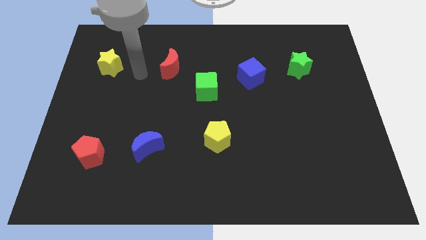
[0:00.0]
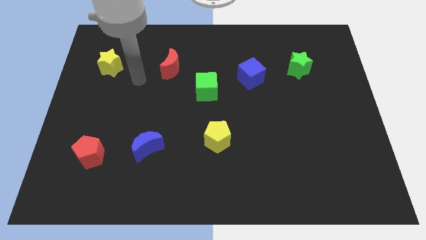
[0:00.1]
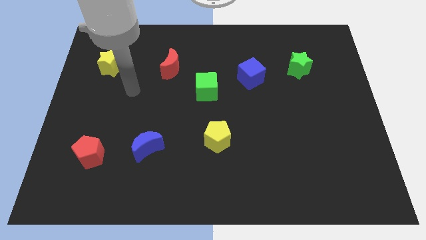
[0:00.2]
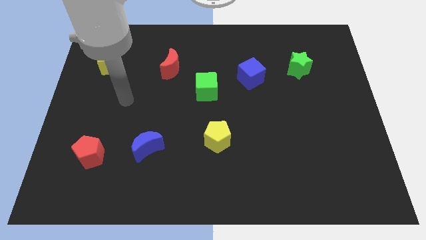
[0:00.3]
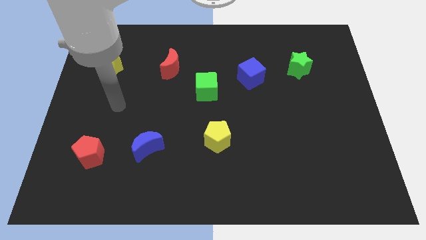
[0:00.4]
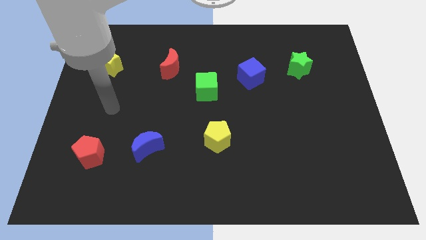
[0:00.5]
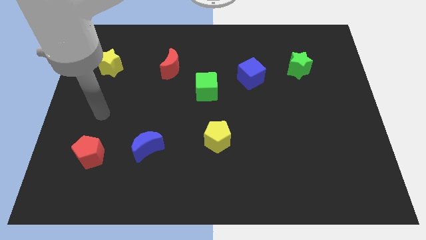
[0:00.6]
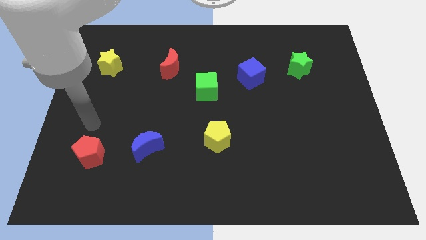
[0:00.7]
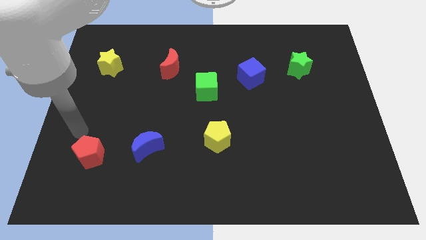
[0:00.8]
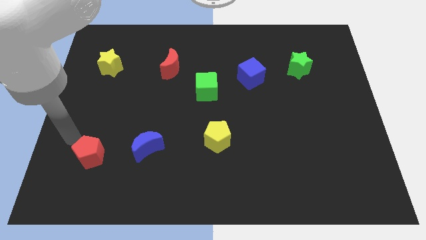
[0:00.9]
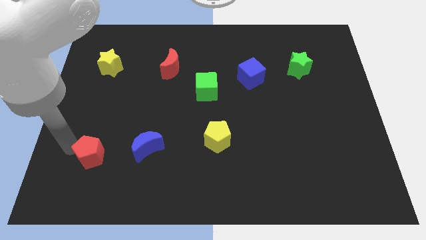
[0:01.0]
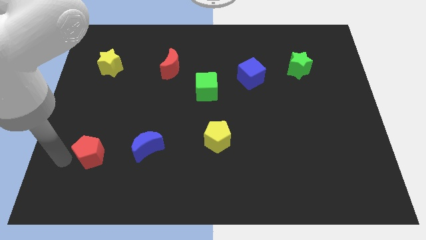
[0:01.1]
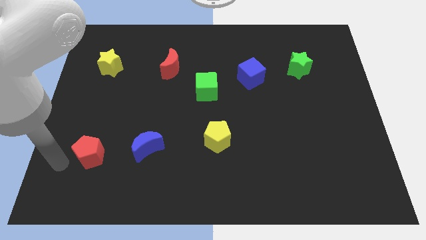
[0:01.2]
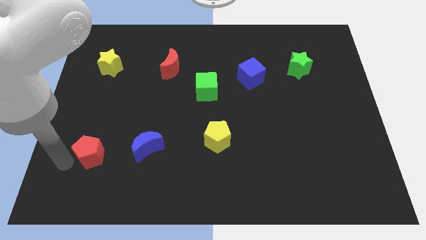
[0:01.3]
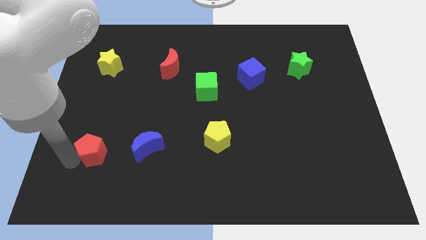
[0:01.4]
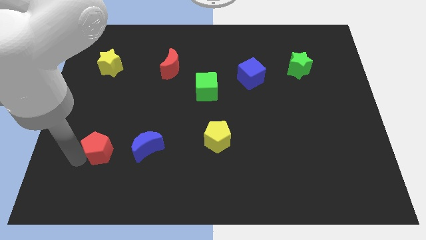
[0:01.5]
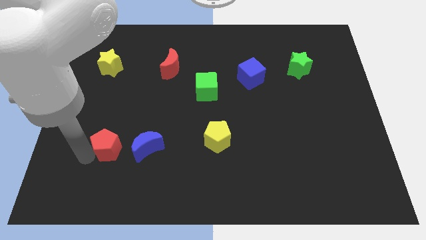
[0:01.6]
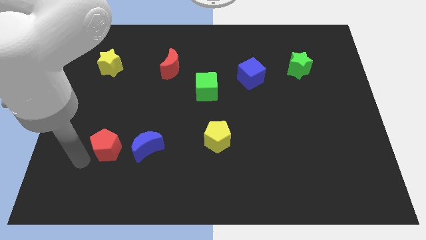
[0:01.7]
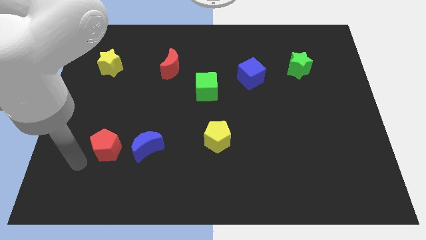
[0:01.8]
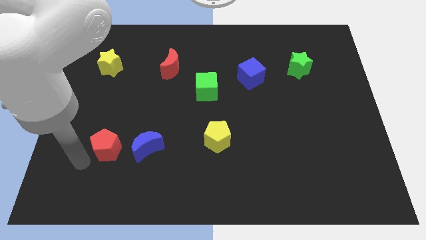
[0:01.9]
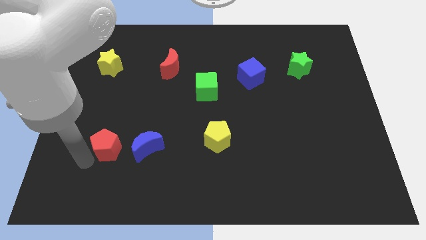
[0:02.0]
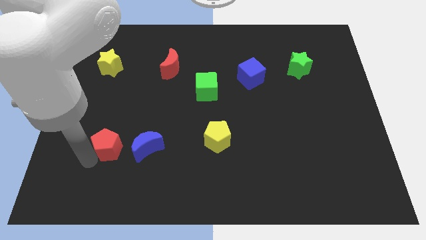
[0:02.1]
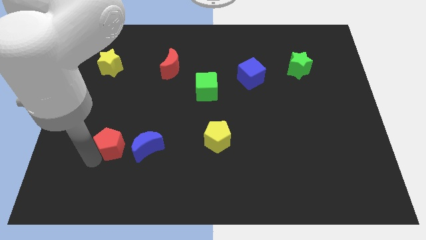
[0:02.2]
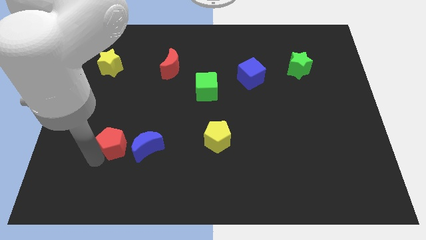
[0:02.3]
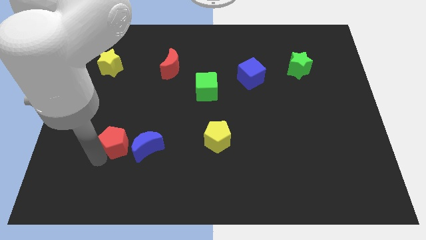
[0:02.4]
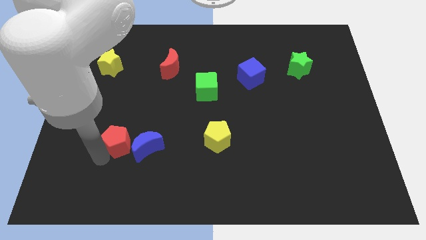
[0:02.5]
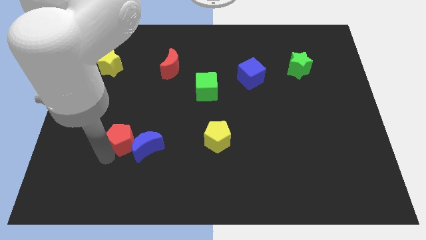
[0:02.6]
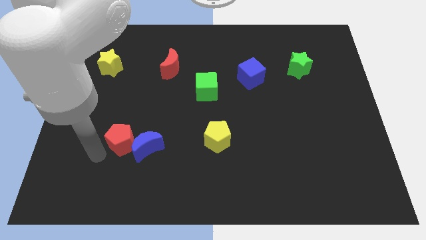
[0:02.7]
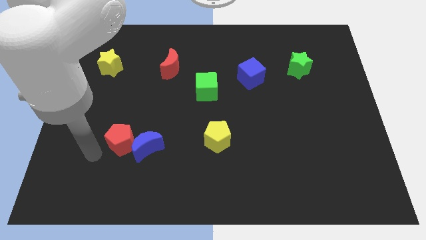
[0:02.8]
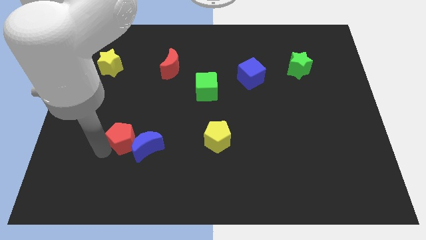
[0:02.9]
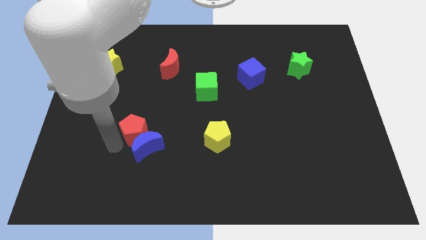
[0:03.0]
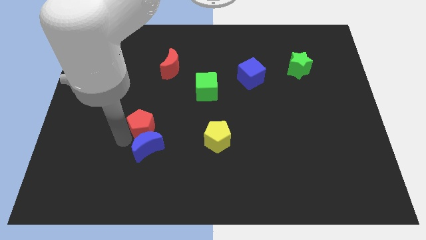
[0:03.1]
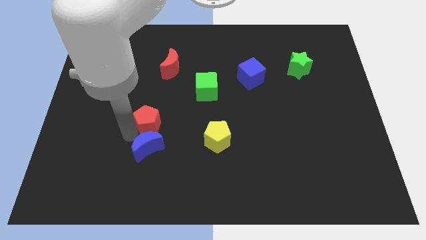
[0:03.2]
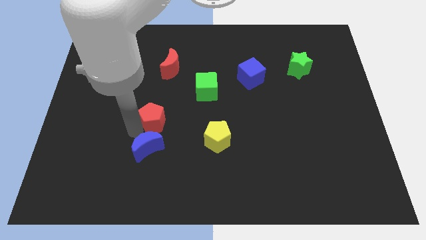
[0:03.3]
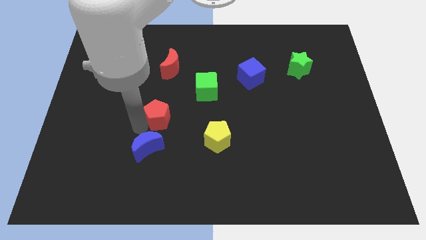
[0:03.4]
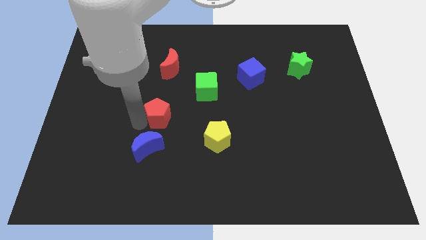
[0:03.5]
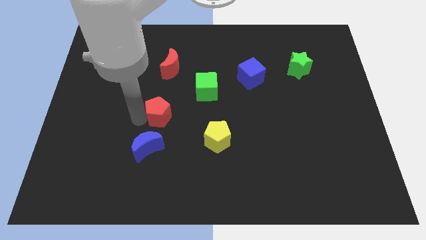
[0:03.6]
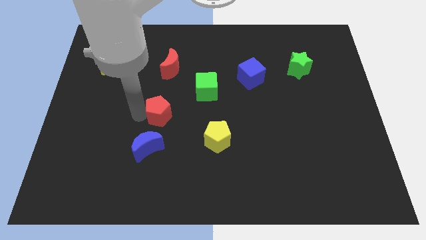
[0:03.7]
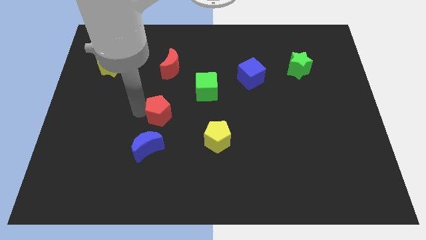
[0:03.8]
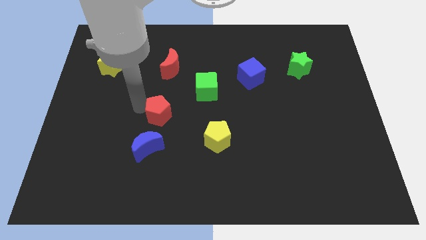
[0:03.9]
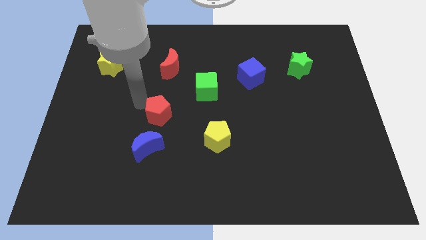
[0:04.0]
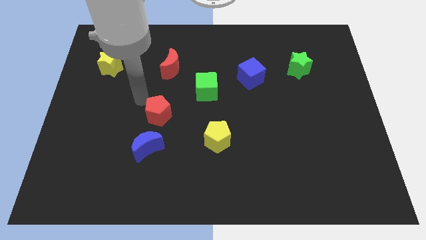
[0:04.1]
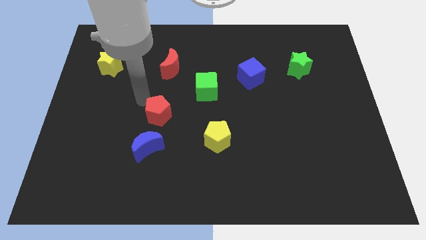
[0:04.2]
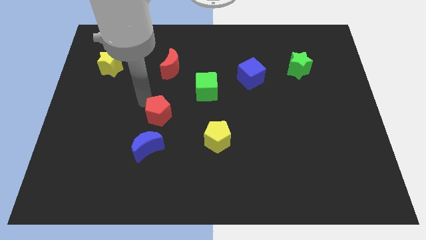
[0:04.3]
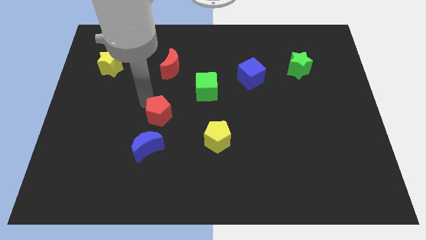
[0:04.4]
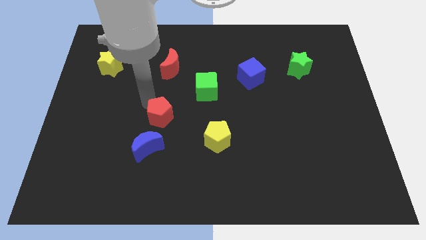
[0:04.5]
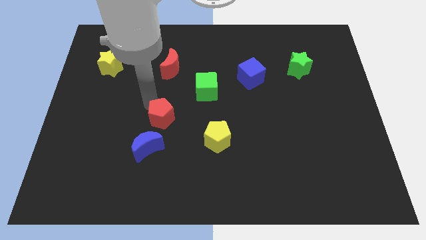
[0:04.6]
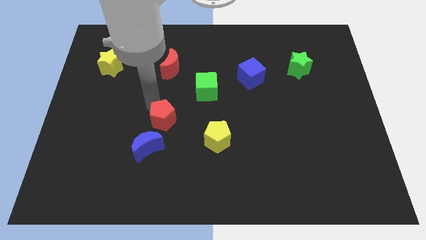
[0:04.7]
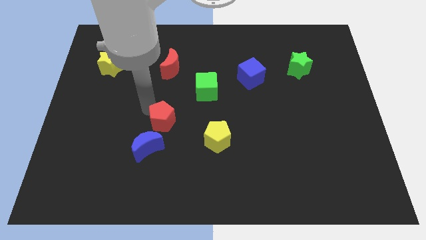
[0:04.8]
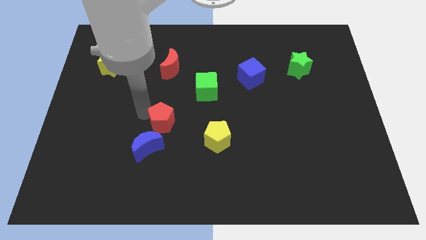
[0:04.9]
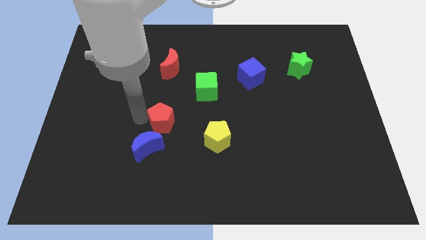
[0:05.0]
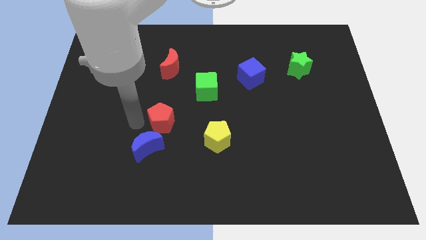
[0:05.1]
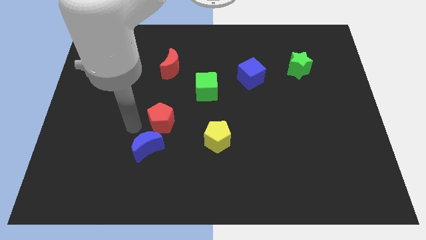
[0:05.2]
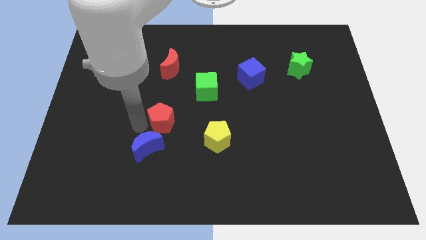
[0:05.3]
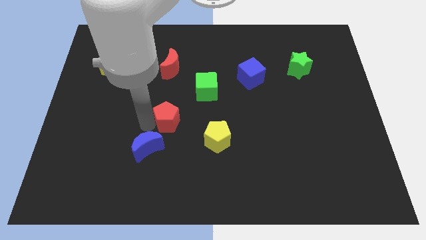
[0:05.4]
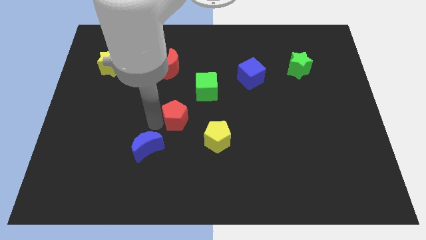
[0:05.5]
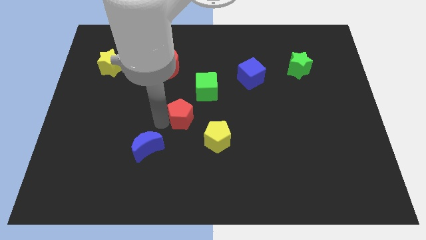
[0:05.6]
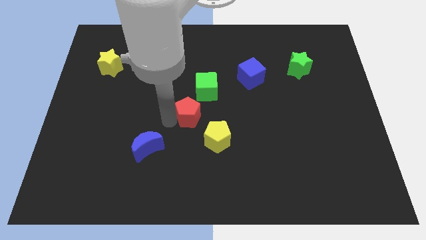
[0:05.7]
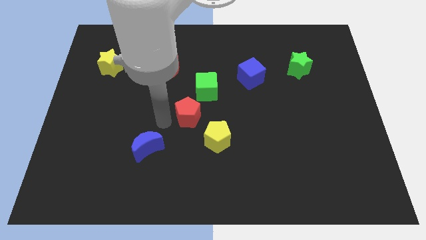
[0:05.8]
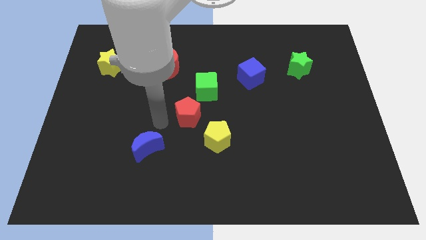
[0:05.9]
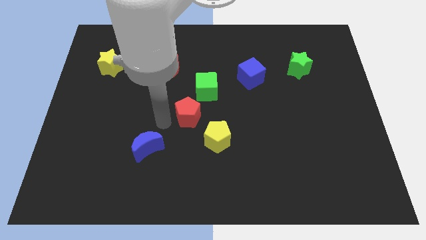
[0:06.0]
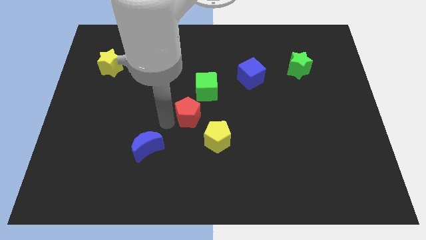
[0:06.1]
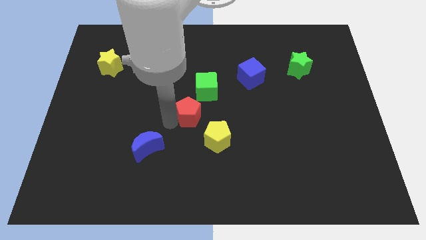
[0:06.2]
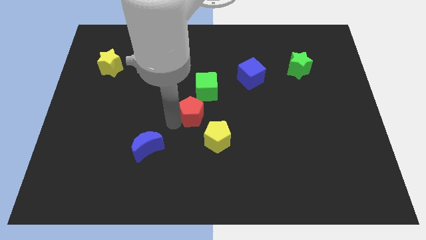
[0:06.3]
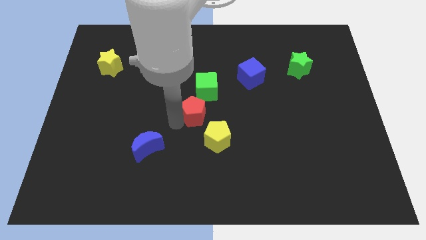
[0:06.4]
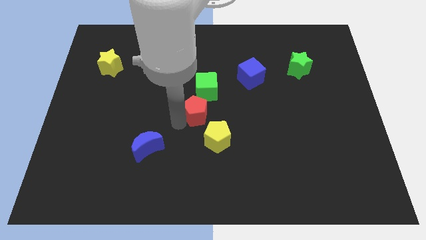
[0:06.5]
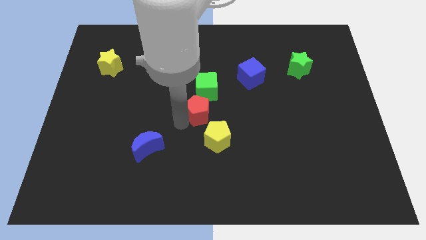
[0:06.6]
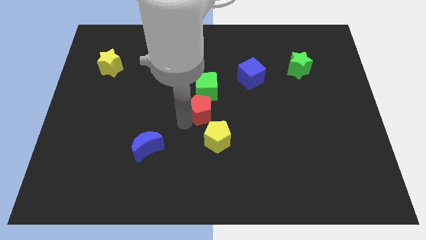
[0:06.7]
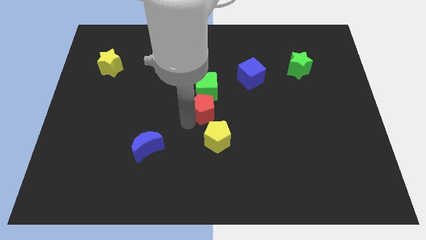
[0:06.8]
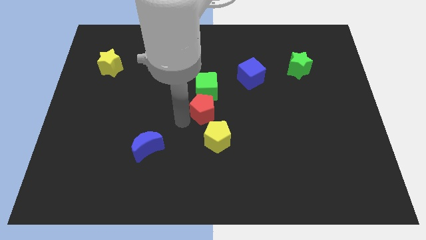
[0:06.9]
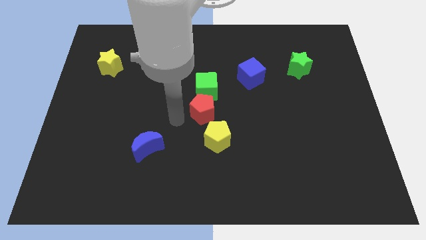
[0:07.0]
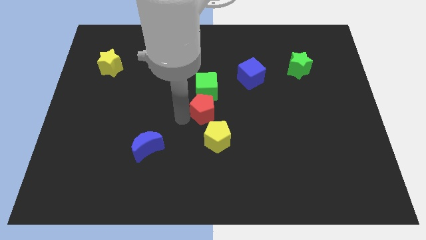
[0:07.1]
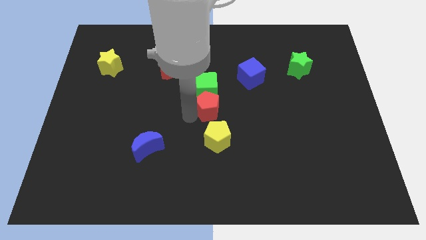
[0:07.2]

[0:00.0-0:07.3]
move the red pentagon to the bottom right side of the green cube

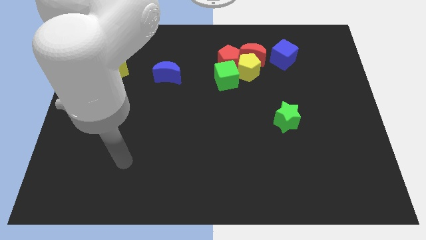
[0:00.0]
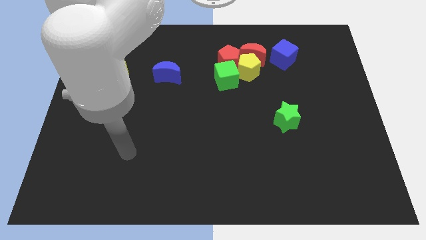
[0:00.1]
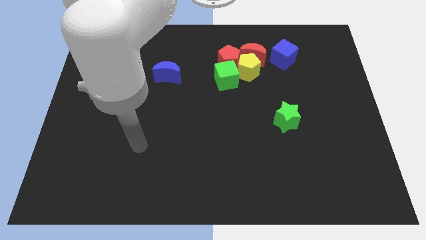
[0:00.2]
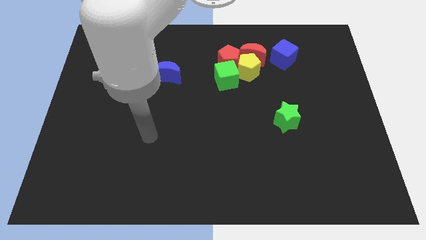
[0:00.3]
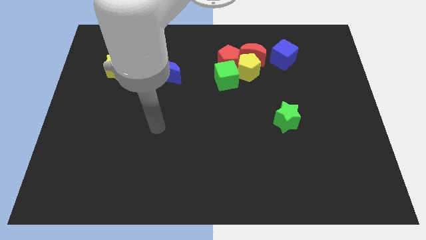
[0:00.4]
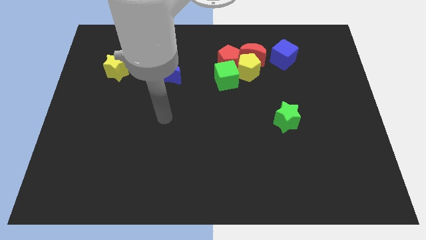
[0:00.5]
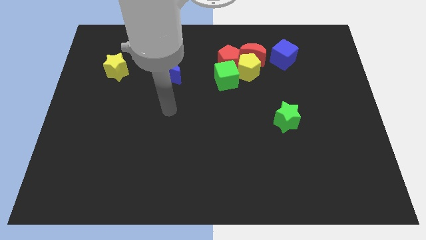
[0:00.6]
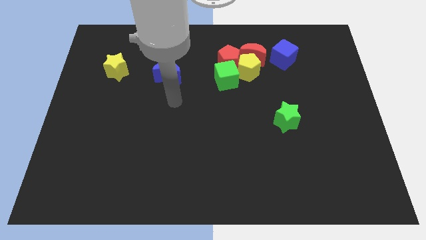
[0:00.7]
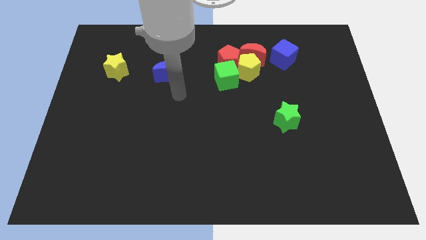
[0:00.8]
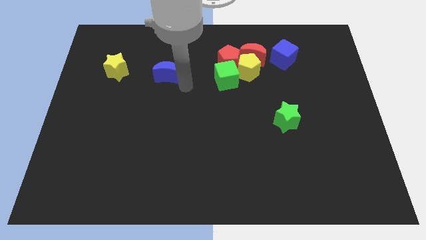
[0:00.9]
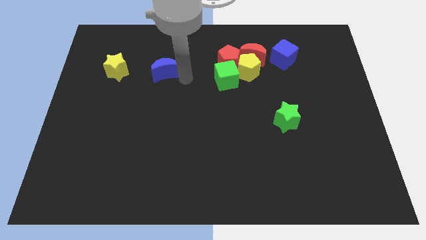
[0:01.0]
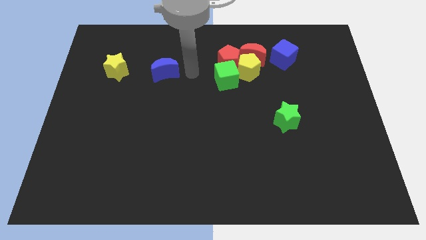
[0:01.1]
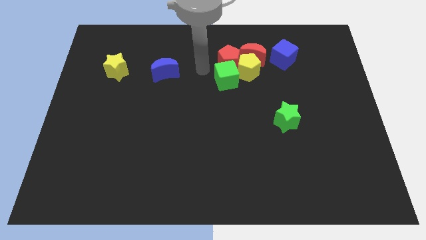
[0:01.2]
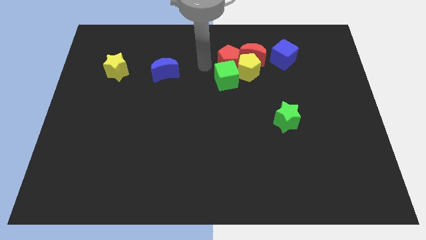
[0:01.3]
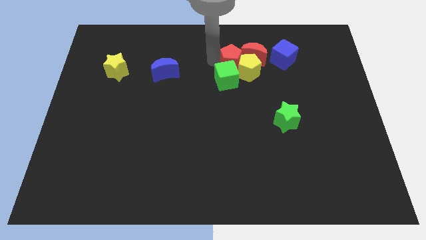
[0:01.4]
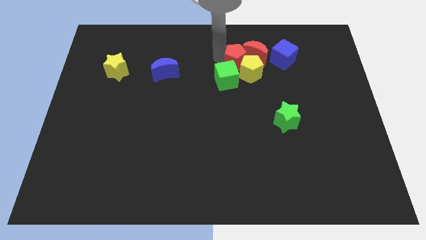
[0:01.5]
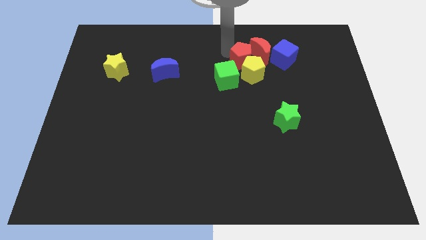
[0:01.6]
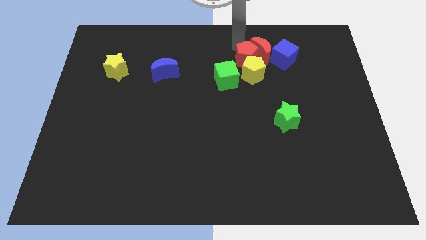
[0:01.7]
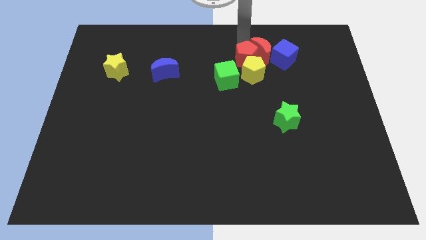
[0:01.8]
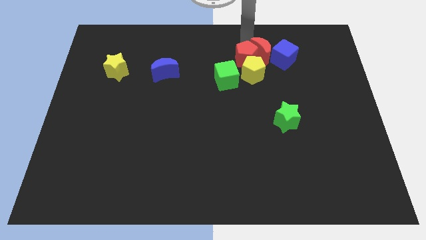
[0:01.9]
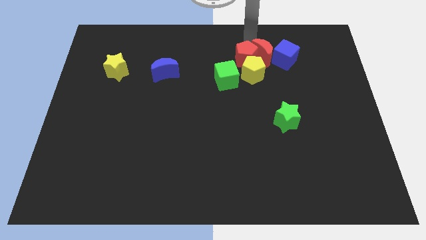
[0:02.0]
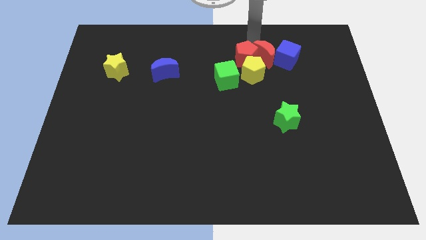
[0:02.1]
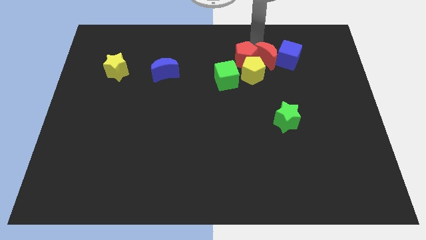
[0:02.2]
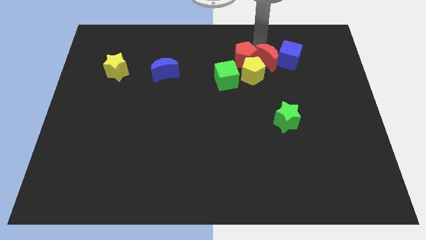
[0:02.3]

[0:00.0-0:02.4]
push the red moon just right of the yellow pentagon
